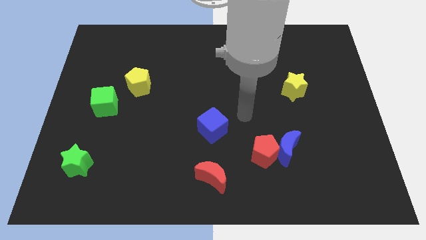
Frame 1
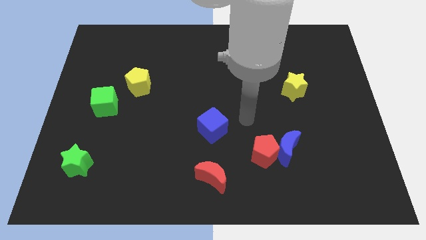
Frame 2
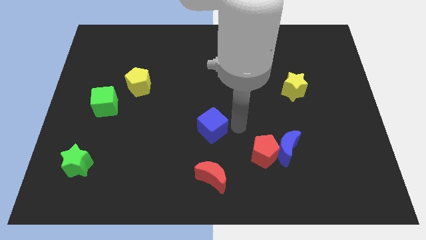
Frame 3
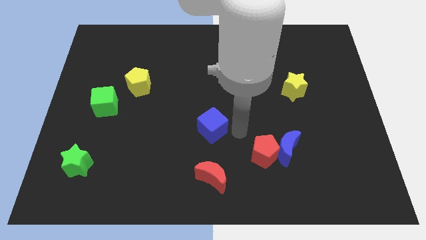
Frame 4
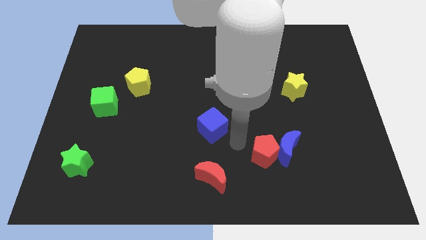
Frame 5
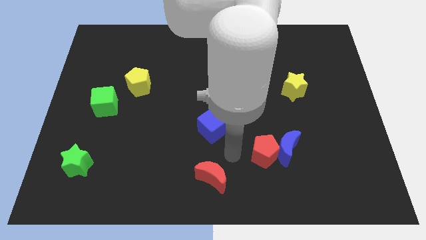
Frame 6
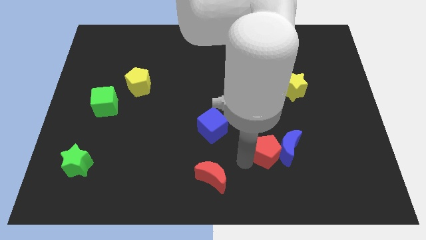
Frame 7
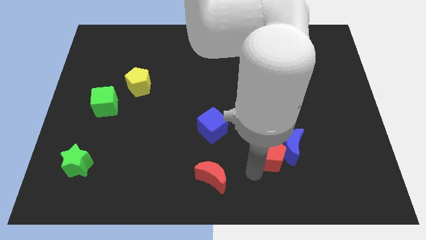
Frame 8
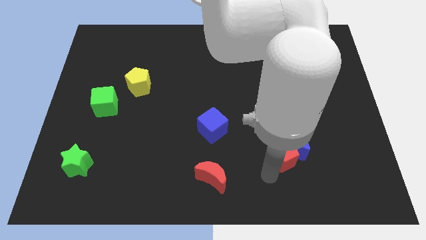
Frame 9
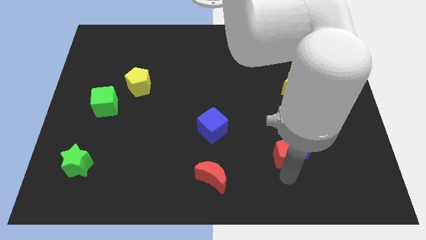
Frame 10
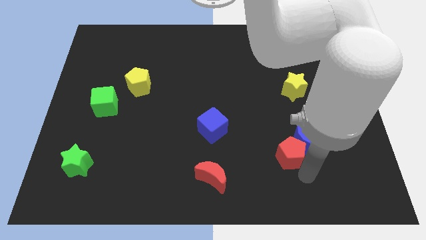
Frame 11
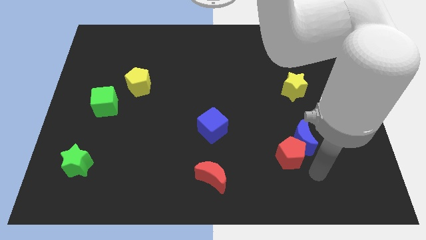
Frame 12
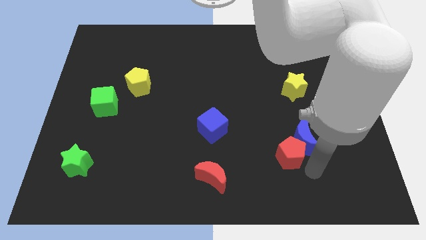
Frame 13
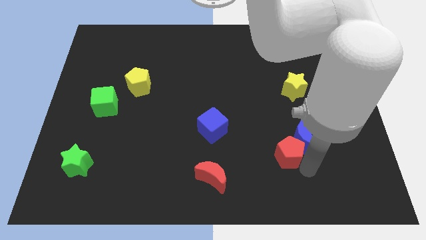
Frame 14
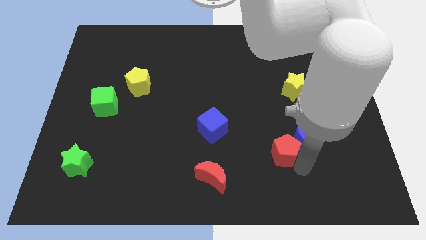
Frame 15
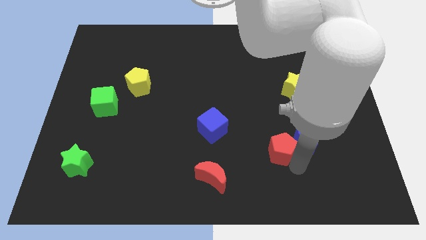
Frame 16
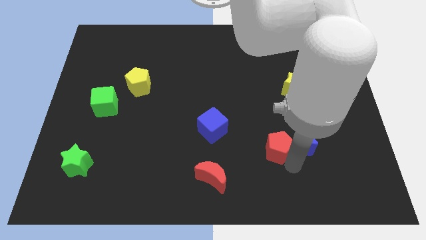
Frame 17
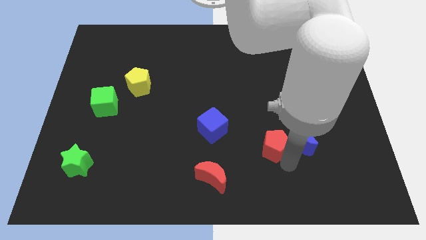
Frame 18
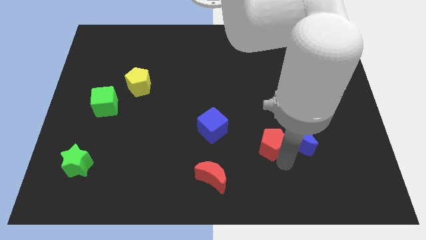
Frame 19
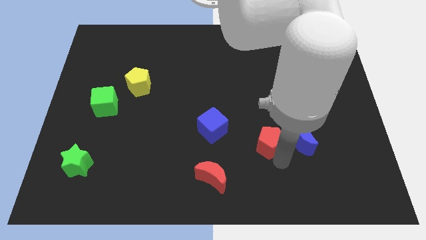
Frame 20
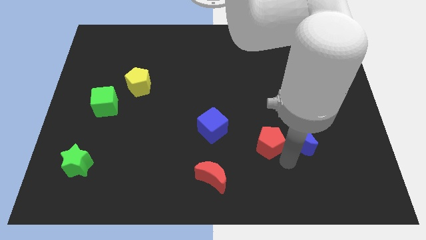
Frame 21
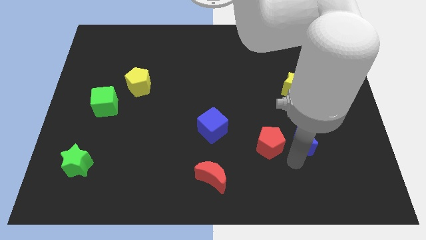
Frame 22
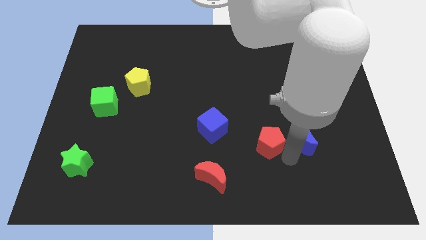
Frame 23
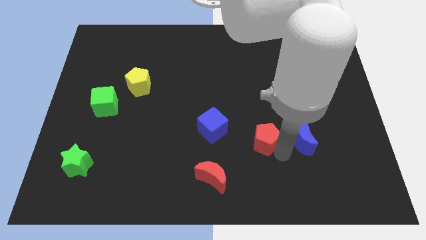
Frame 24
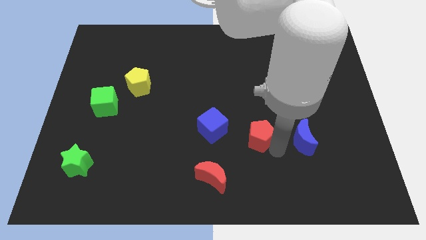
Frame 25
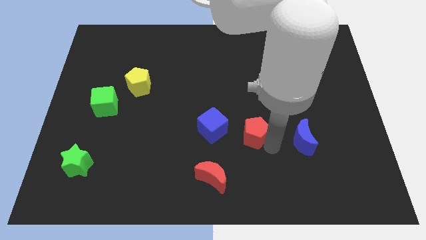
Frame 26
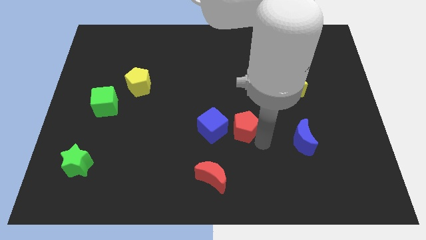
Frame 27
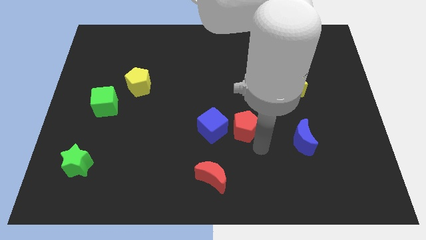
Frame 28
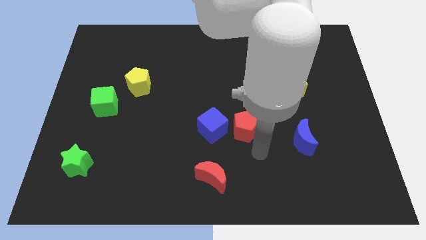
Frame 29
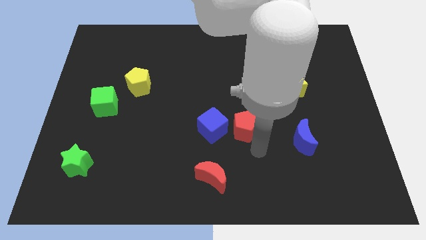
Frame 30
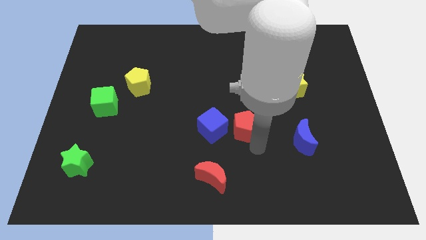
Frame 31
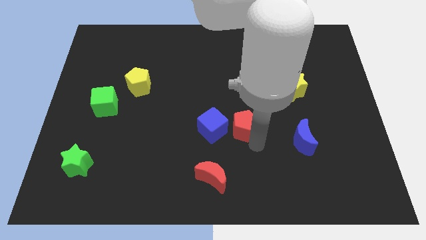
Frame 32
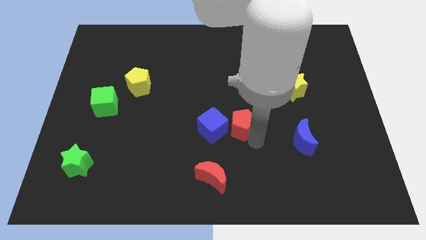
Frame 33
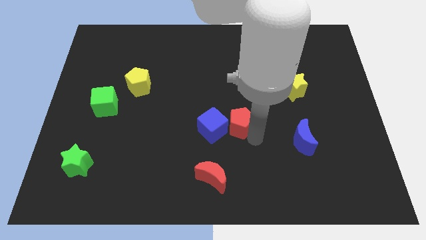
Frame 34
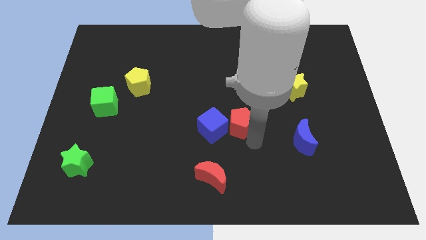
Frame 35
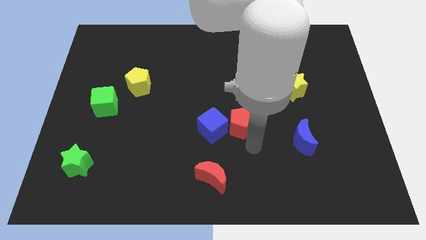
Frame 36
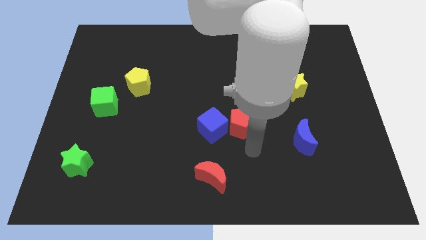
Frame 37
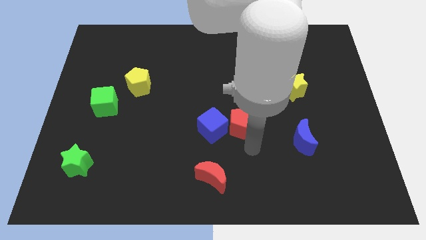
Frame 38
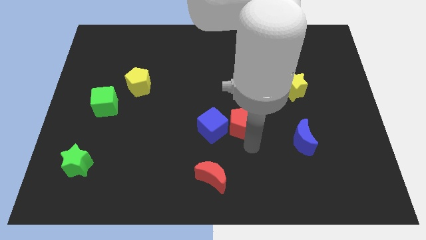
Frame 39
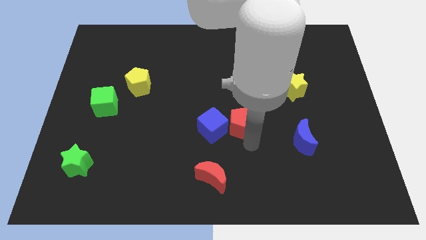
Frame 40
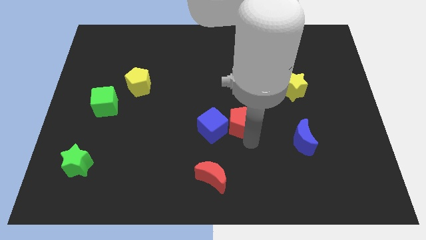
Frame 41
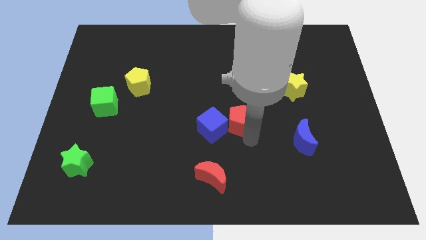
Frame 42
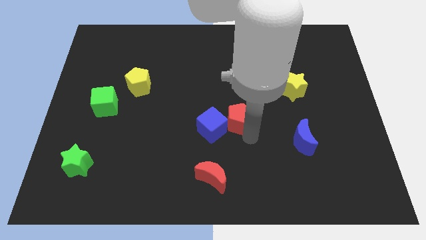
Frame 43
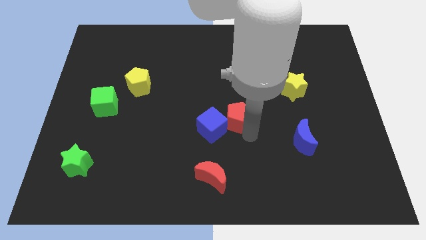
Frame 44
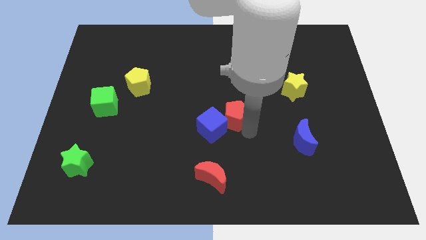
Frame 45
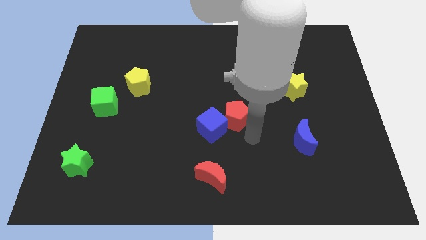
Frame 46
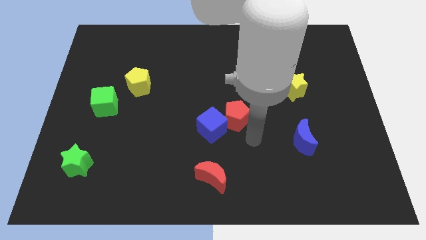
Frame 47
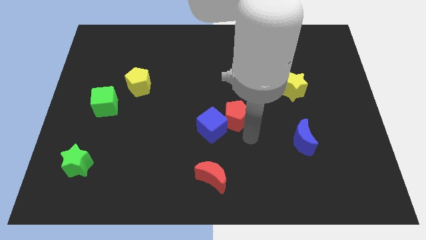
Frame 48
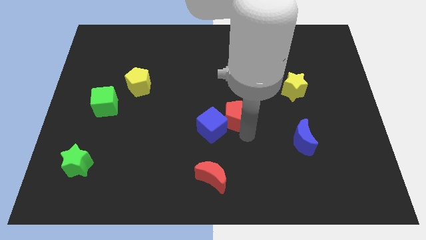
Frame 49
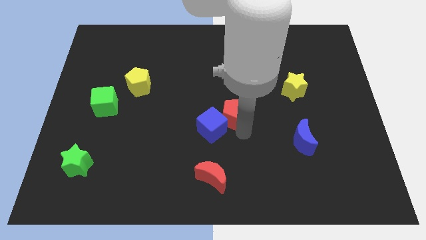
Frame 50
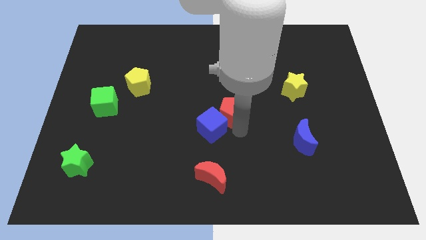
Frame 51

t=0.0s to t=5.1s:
move the red pentagon to the top side of the blue cube

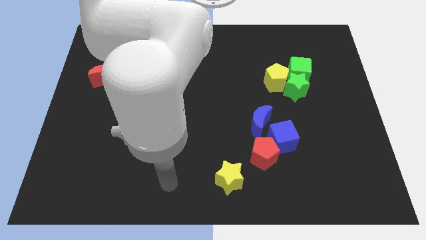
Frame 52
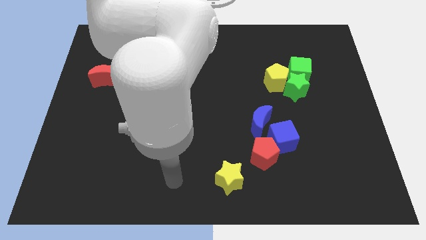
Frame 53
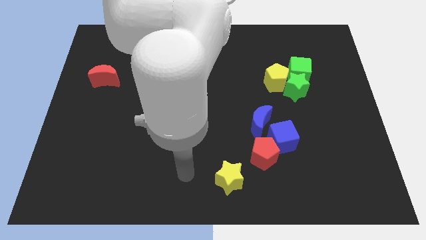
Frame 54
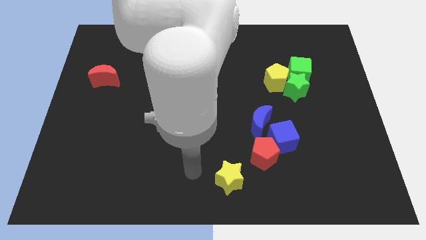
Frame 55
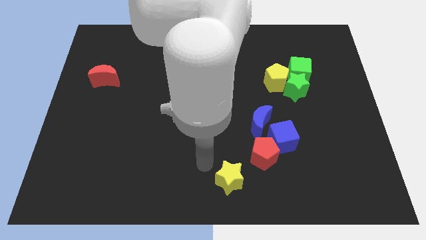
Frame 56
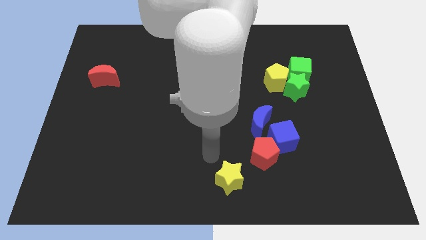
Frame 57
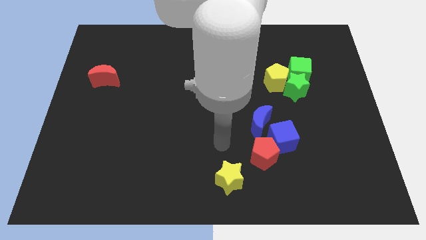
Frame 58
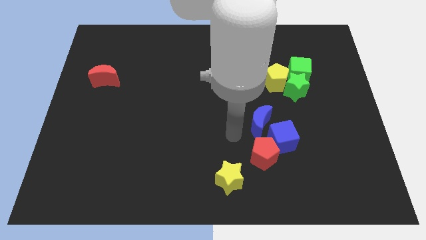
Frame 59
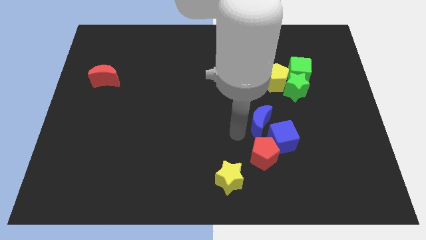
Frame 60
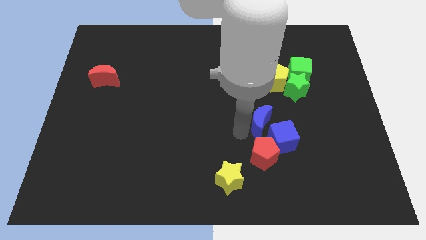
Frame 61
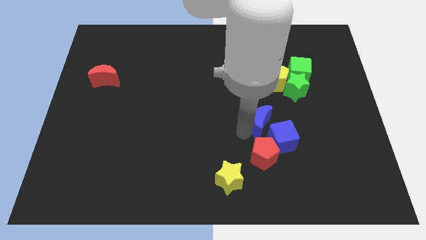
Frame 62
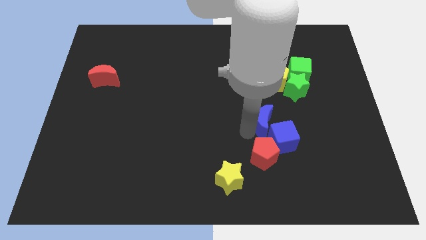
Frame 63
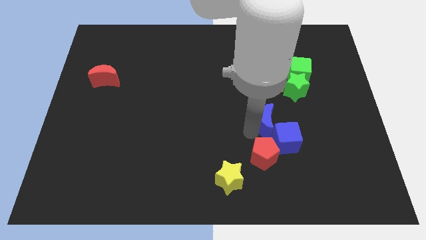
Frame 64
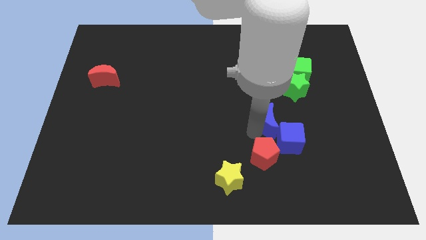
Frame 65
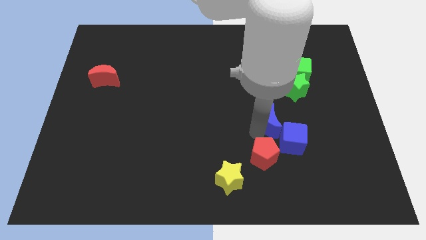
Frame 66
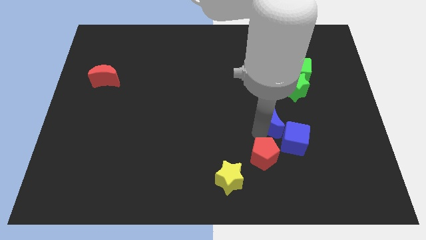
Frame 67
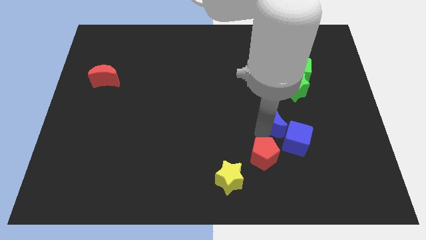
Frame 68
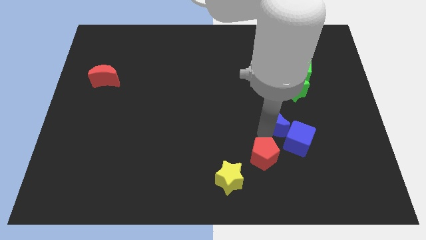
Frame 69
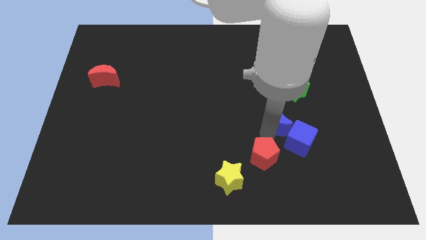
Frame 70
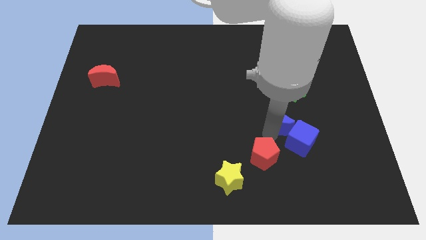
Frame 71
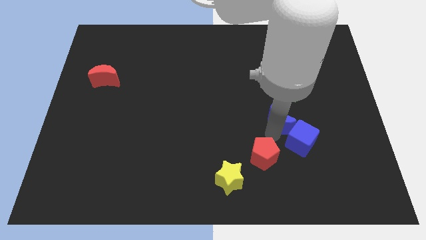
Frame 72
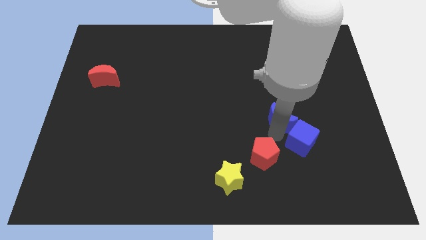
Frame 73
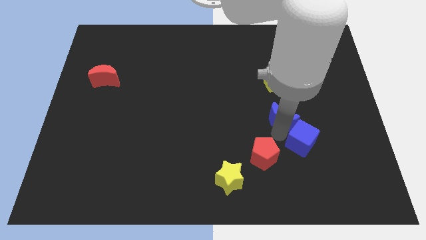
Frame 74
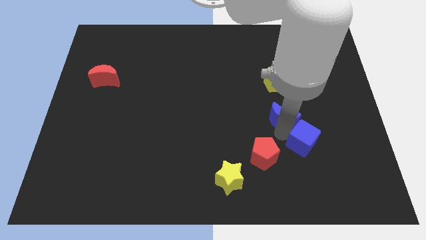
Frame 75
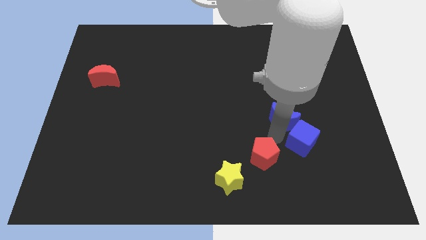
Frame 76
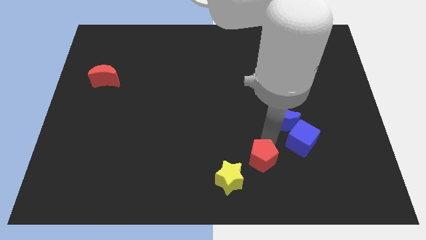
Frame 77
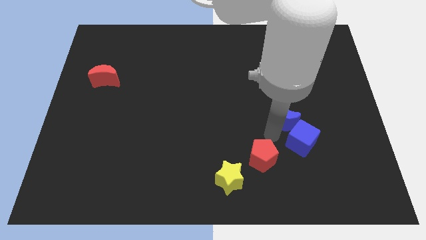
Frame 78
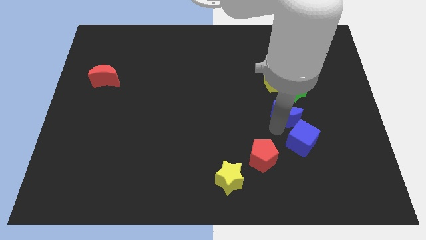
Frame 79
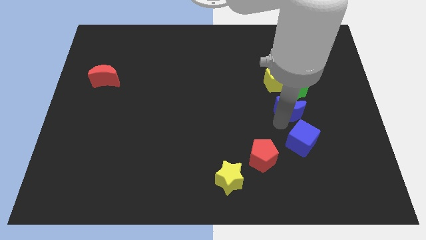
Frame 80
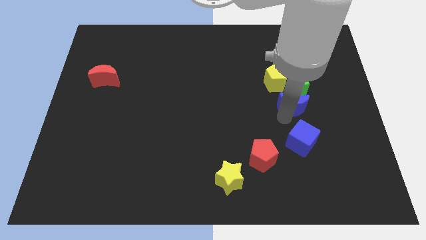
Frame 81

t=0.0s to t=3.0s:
push the blue moon diagonally down and to the right of the yellow pentagon
